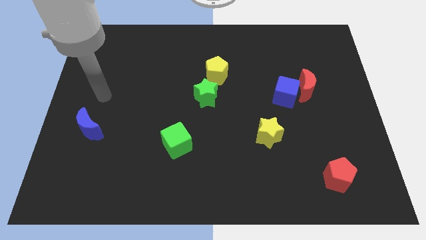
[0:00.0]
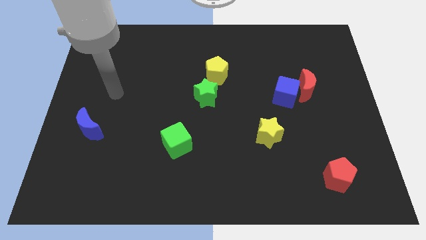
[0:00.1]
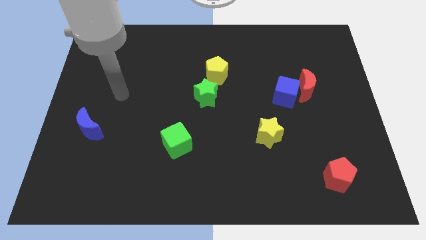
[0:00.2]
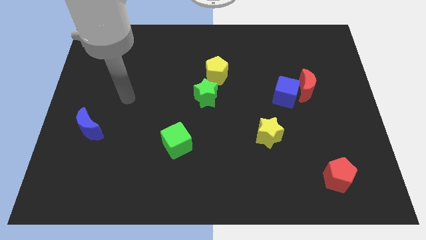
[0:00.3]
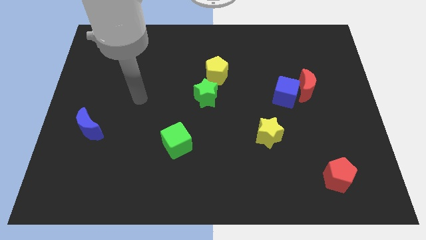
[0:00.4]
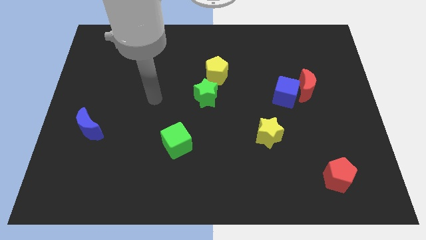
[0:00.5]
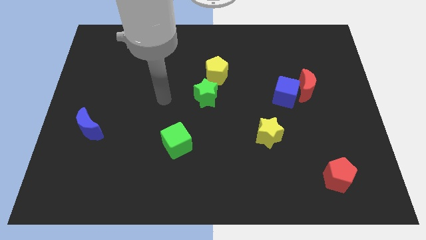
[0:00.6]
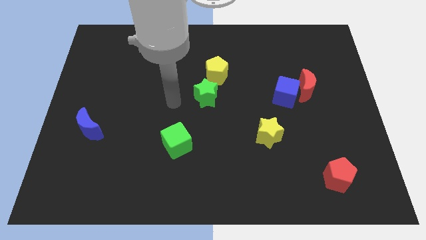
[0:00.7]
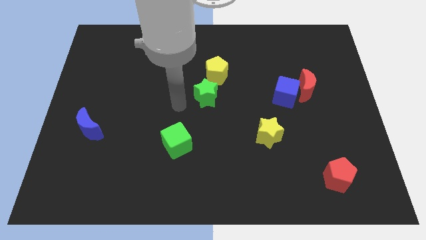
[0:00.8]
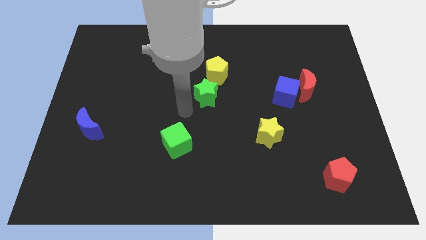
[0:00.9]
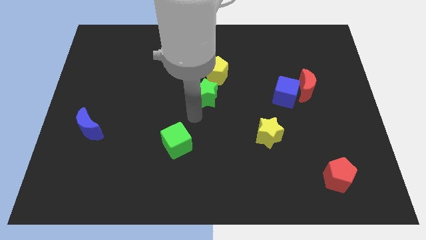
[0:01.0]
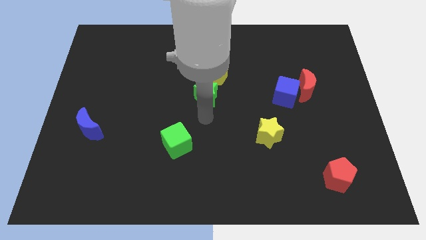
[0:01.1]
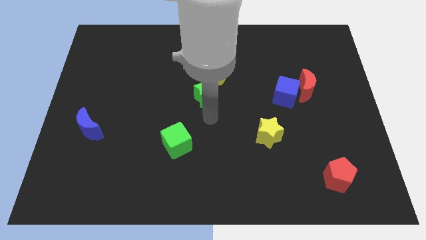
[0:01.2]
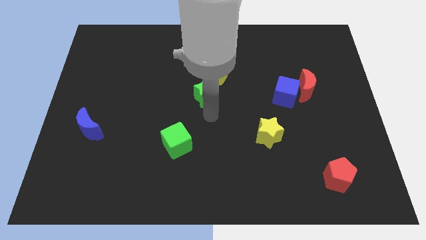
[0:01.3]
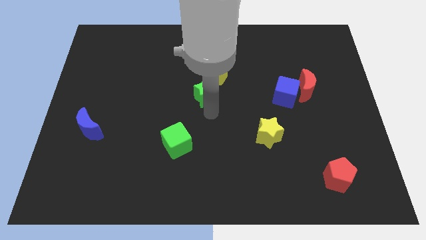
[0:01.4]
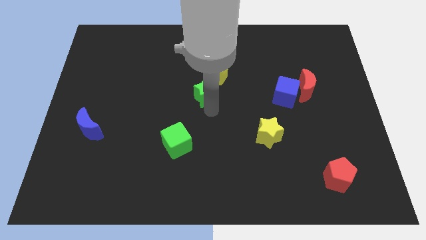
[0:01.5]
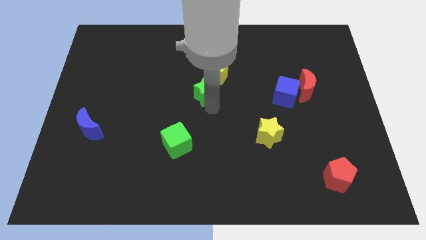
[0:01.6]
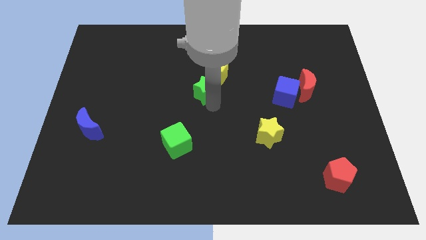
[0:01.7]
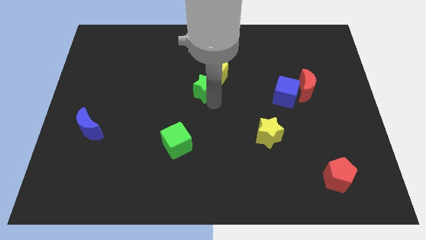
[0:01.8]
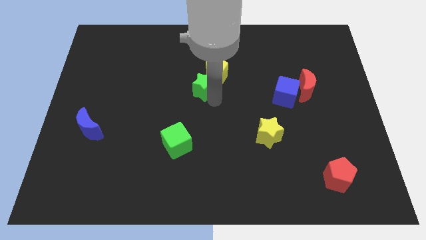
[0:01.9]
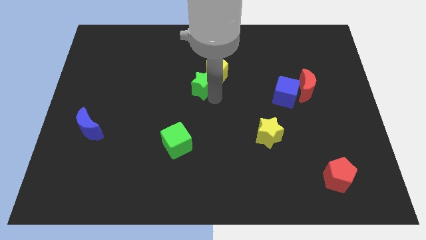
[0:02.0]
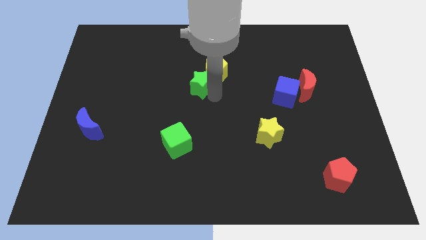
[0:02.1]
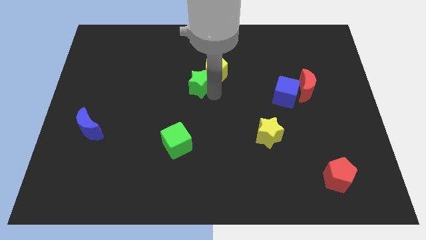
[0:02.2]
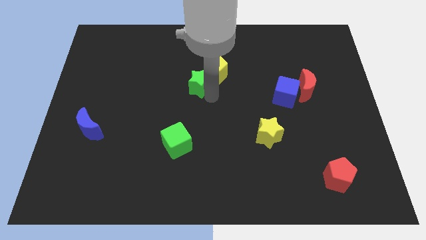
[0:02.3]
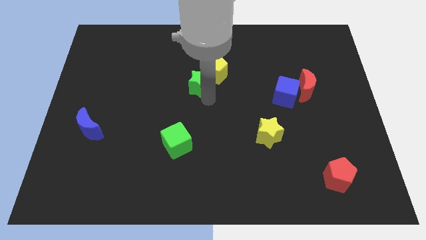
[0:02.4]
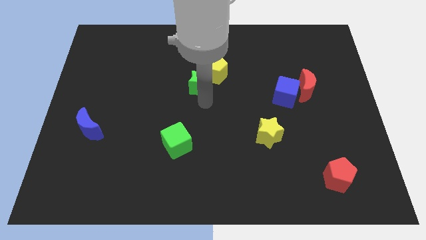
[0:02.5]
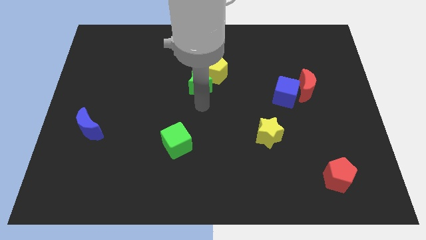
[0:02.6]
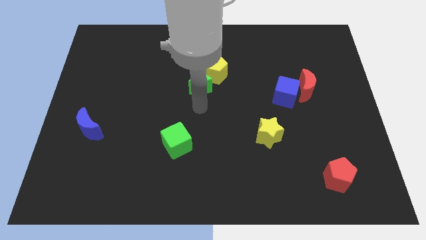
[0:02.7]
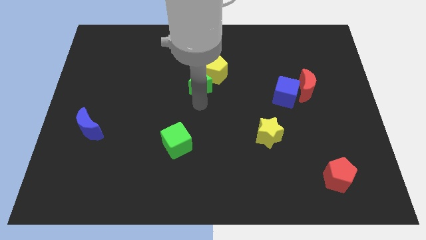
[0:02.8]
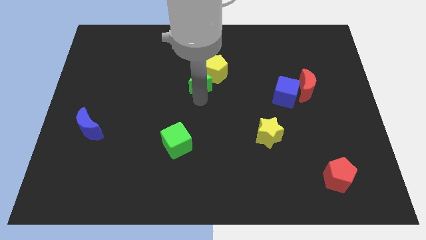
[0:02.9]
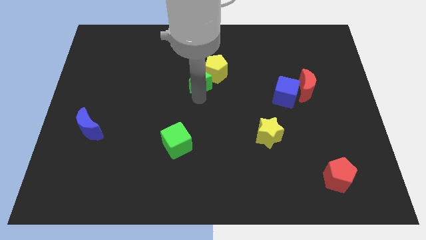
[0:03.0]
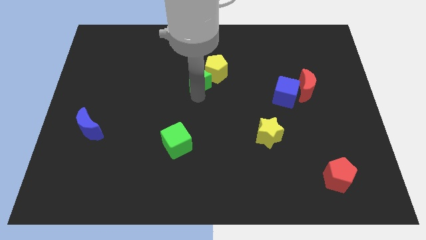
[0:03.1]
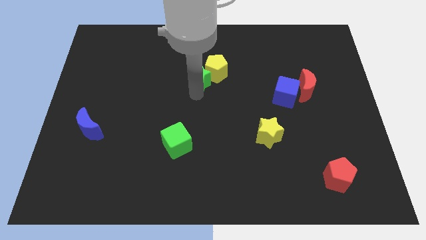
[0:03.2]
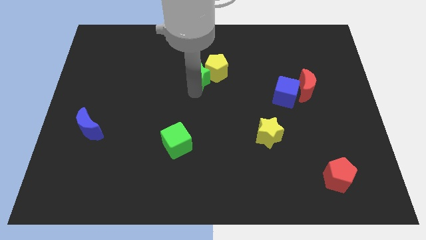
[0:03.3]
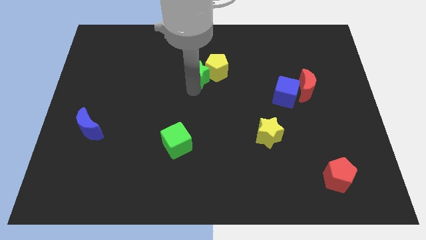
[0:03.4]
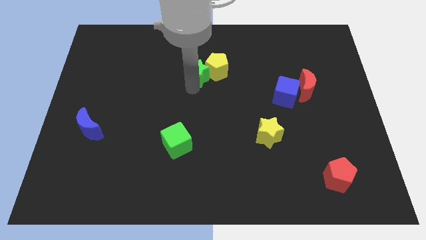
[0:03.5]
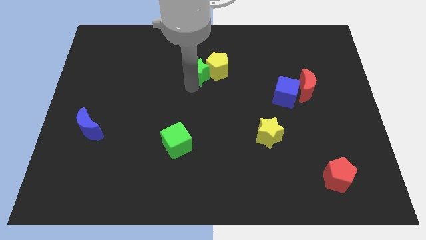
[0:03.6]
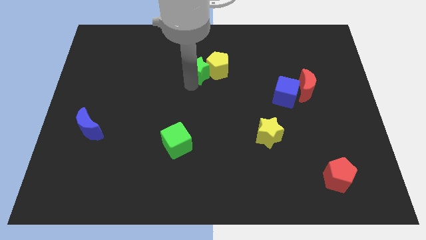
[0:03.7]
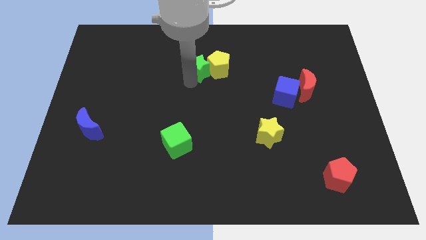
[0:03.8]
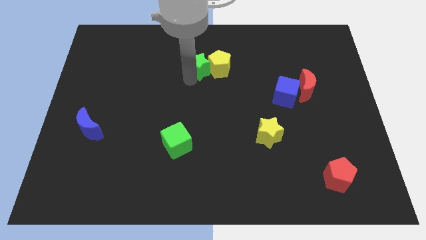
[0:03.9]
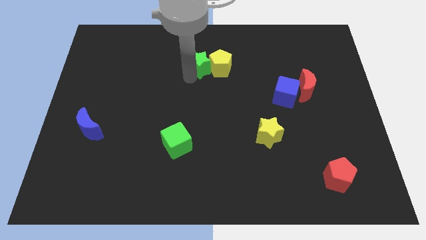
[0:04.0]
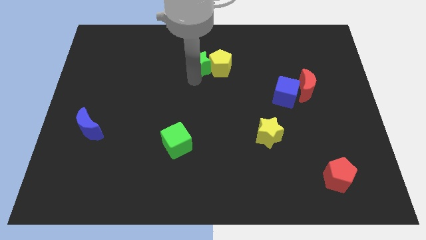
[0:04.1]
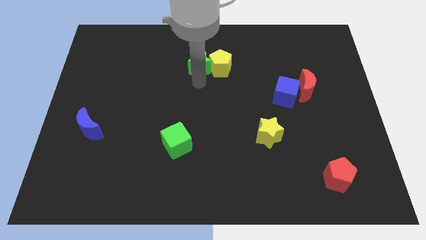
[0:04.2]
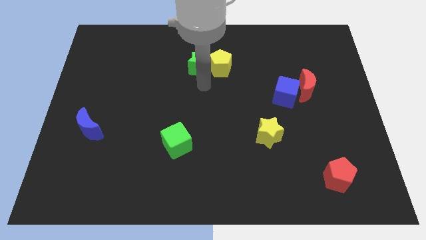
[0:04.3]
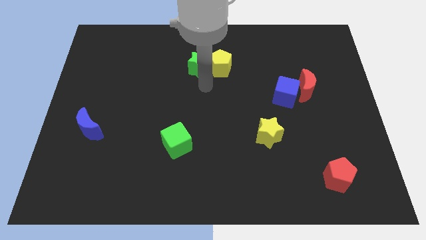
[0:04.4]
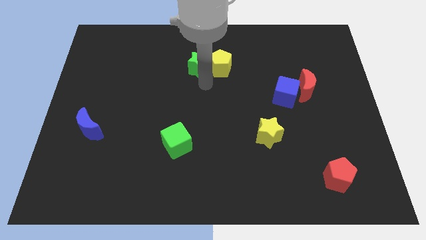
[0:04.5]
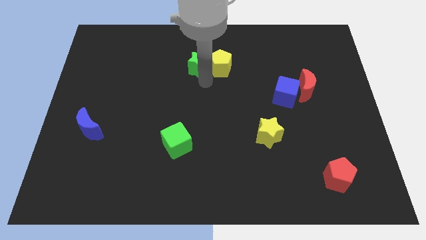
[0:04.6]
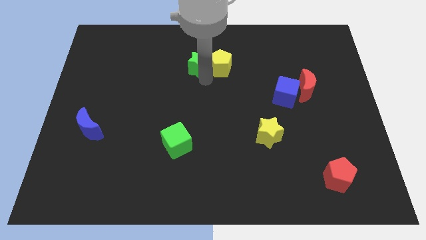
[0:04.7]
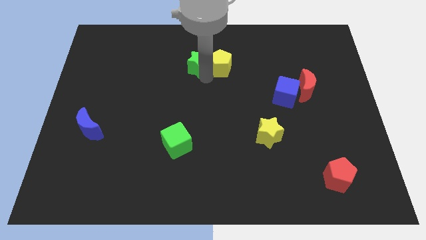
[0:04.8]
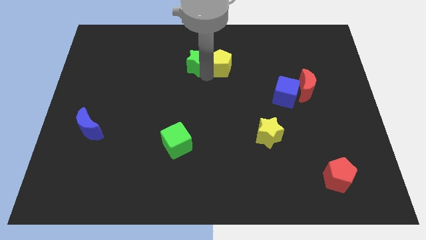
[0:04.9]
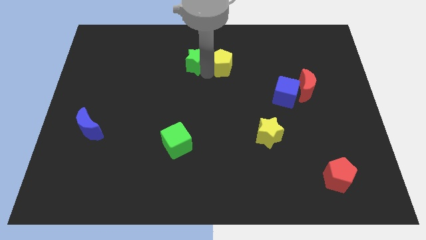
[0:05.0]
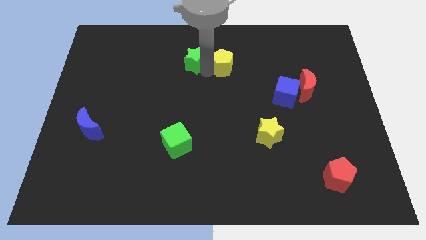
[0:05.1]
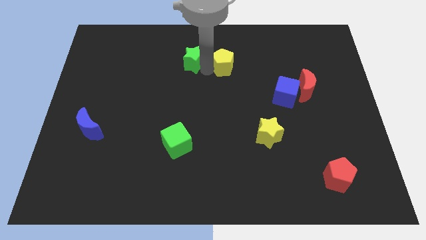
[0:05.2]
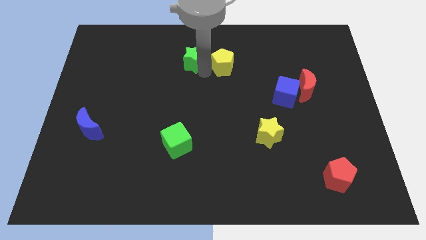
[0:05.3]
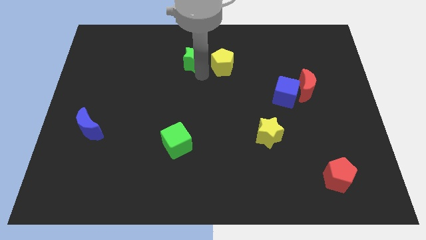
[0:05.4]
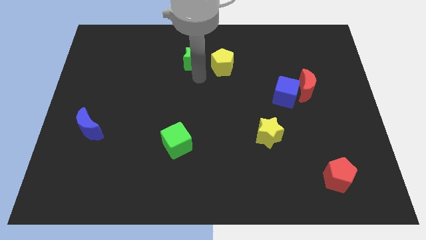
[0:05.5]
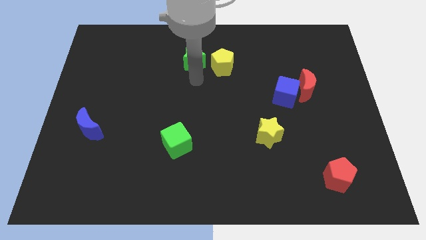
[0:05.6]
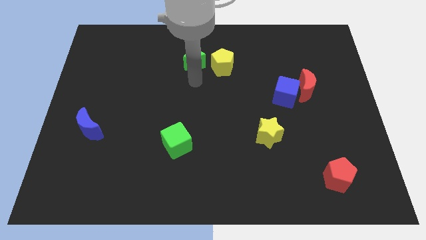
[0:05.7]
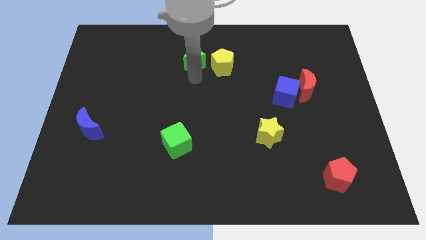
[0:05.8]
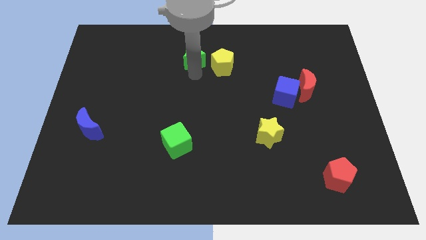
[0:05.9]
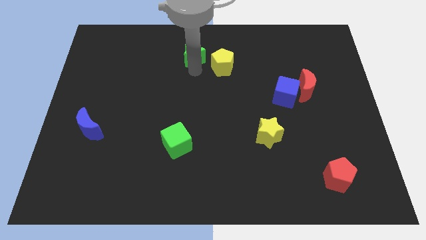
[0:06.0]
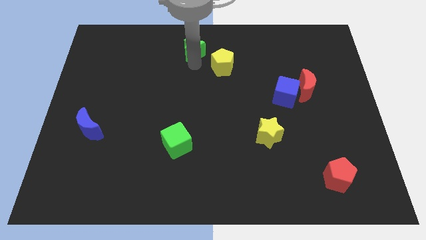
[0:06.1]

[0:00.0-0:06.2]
move the green star to the top side
